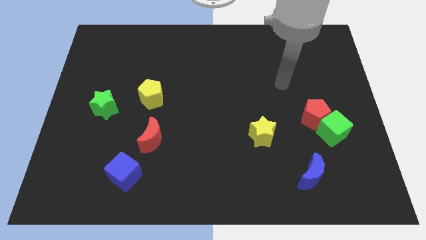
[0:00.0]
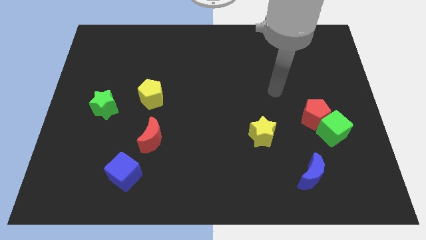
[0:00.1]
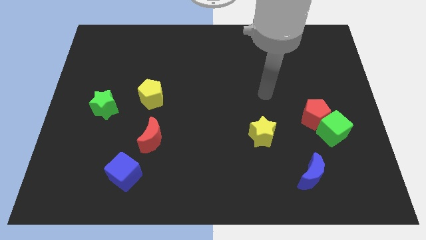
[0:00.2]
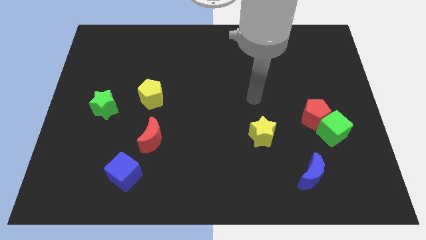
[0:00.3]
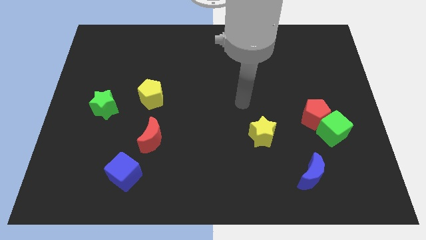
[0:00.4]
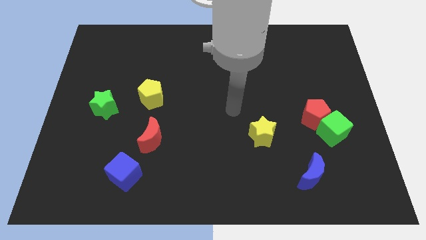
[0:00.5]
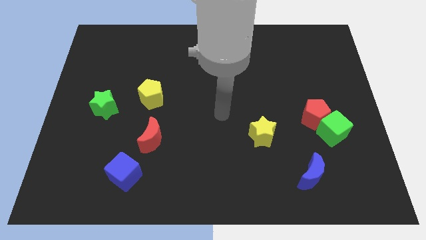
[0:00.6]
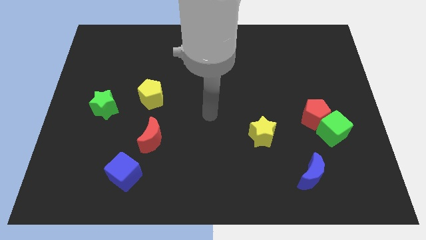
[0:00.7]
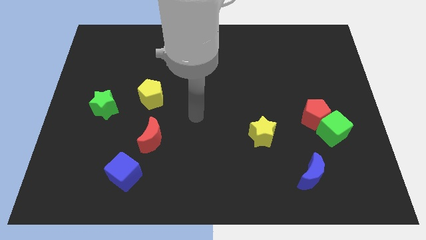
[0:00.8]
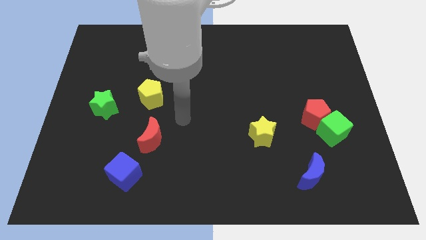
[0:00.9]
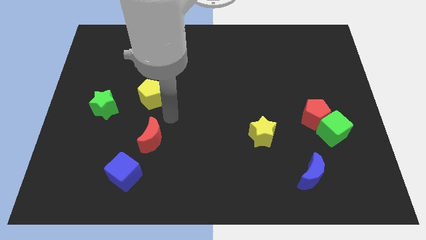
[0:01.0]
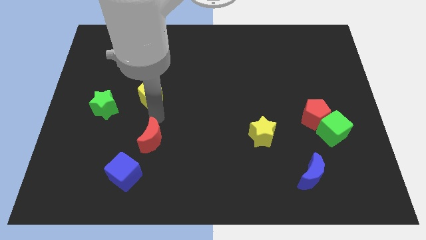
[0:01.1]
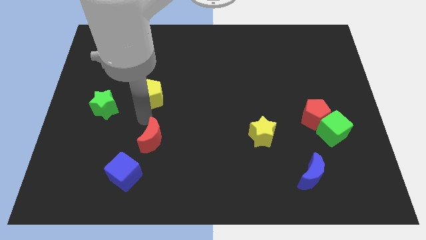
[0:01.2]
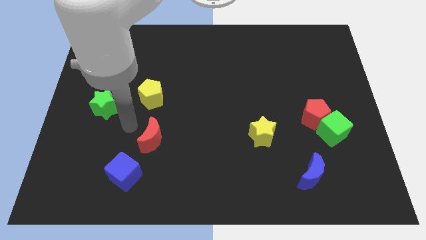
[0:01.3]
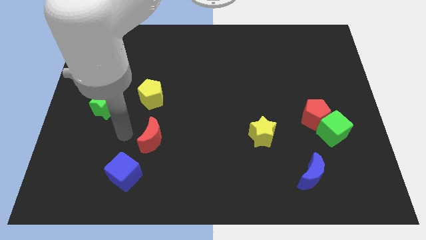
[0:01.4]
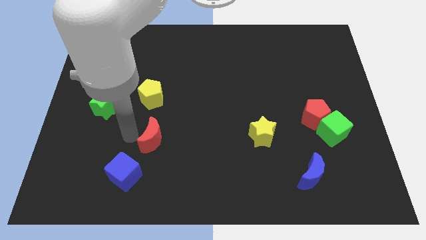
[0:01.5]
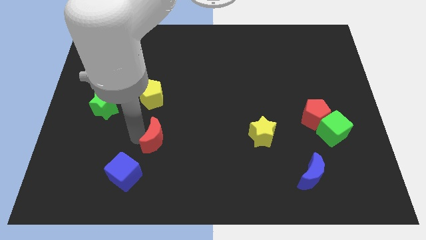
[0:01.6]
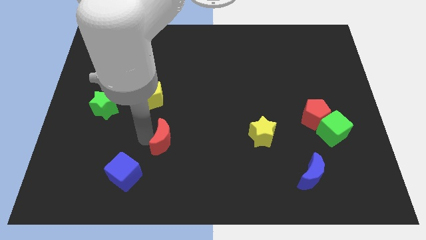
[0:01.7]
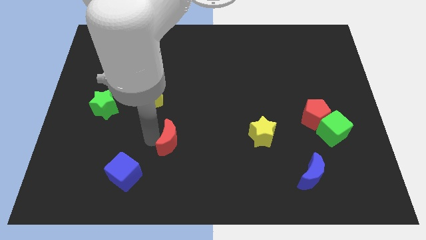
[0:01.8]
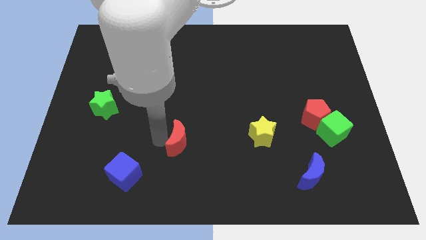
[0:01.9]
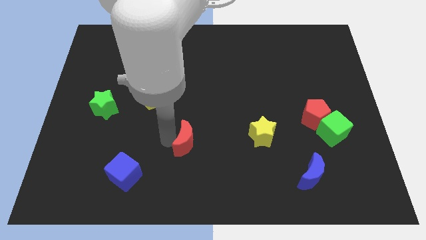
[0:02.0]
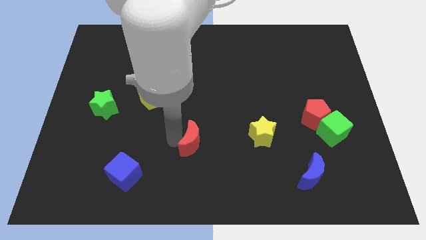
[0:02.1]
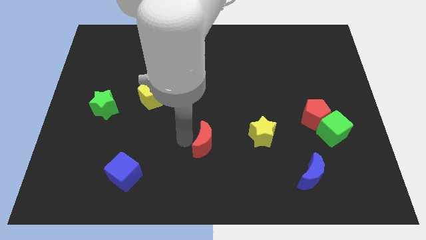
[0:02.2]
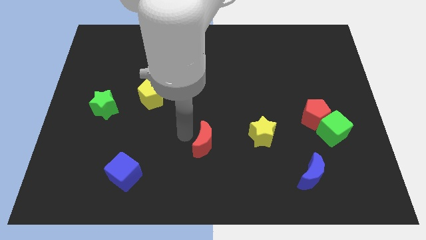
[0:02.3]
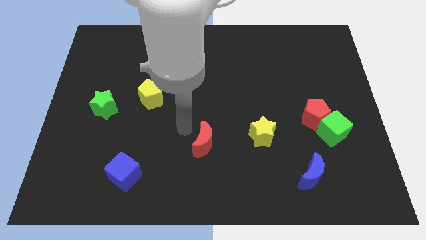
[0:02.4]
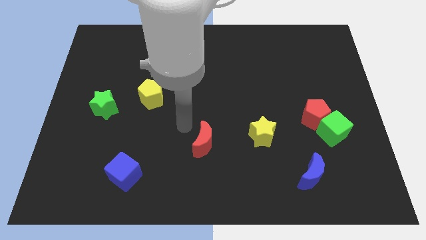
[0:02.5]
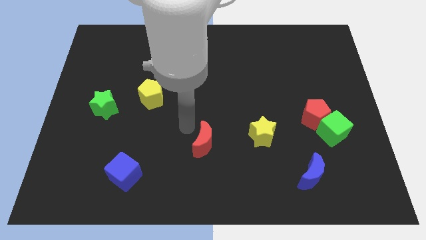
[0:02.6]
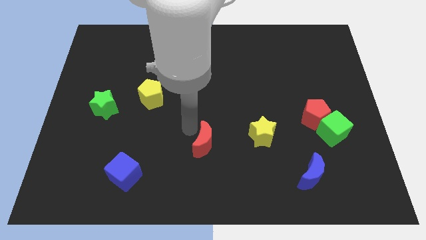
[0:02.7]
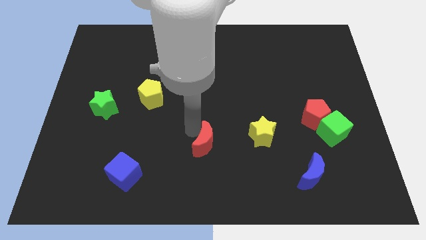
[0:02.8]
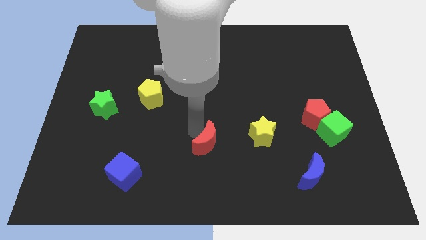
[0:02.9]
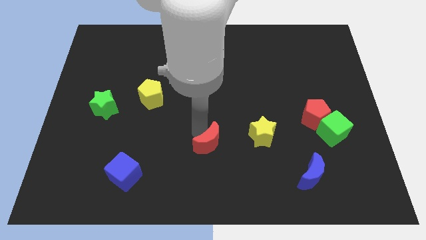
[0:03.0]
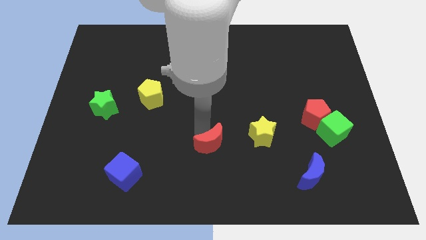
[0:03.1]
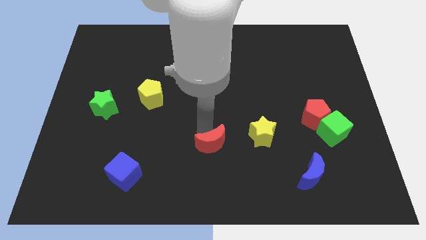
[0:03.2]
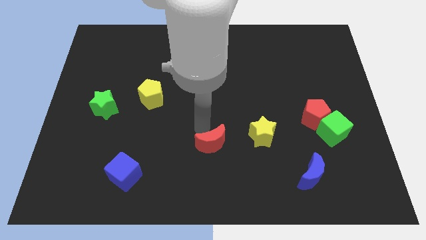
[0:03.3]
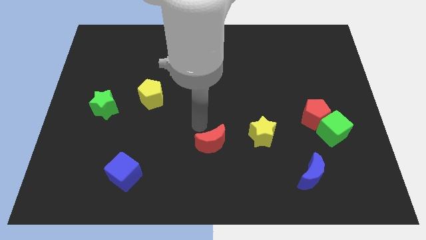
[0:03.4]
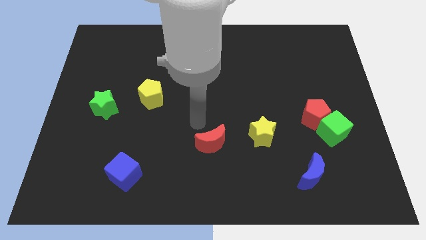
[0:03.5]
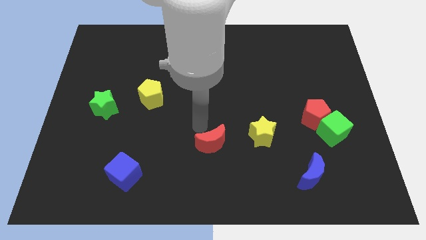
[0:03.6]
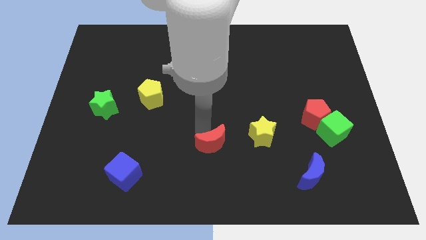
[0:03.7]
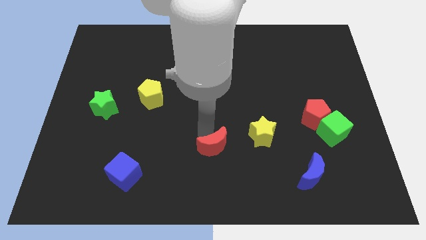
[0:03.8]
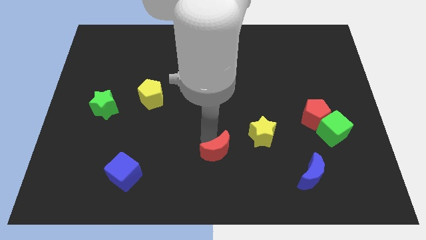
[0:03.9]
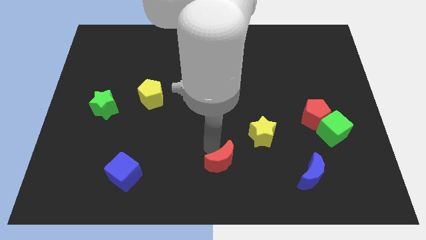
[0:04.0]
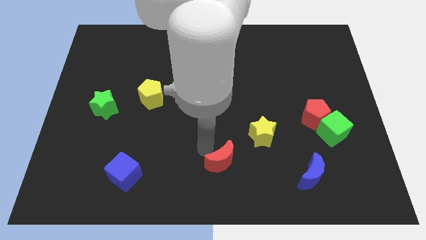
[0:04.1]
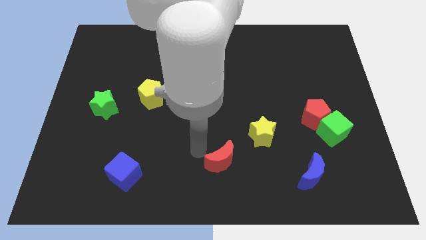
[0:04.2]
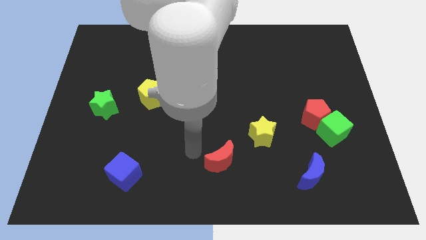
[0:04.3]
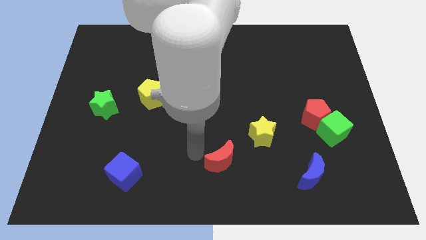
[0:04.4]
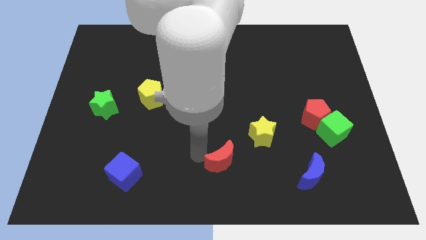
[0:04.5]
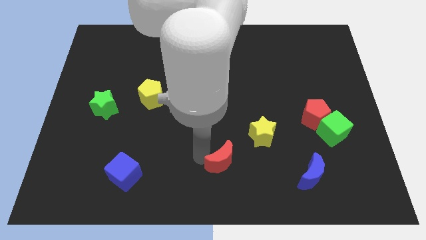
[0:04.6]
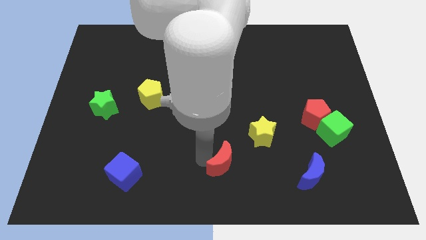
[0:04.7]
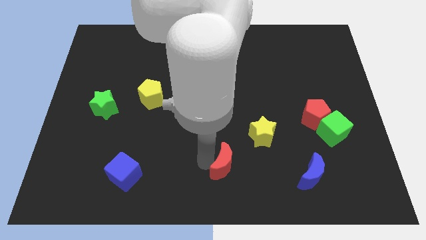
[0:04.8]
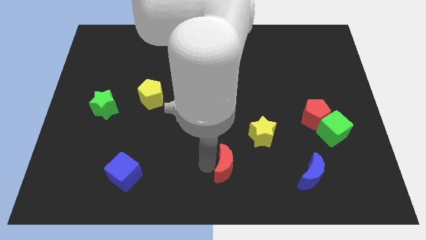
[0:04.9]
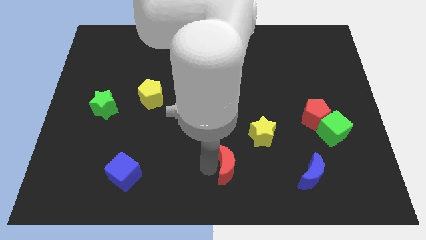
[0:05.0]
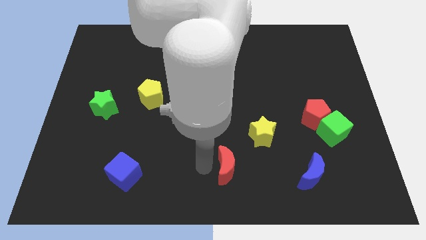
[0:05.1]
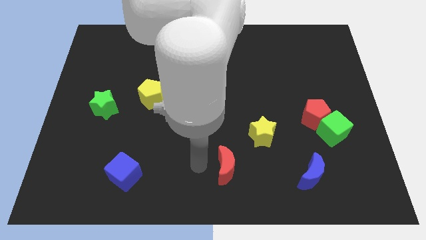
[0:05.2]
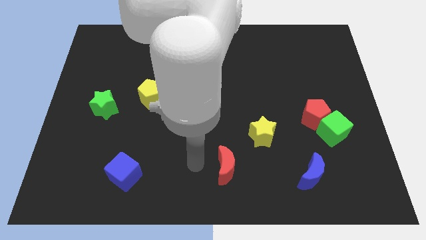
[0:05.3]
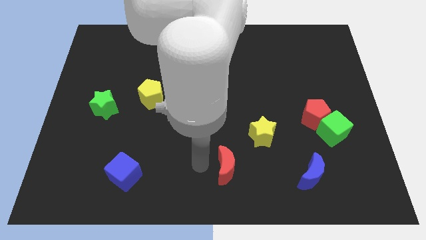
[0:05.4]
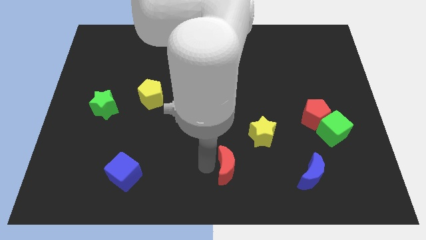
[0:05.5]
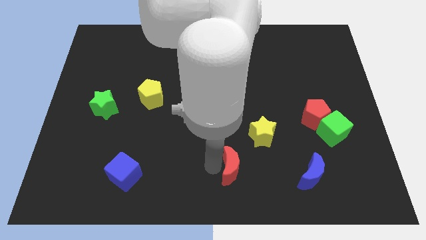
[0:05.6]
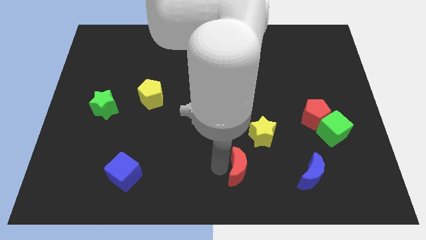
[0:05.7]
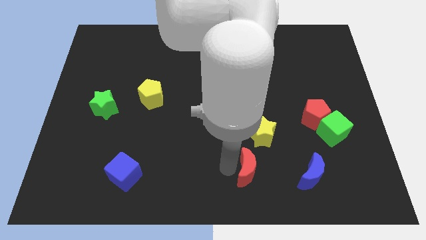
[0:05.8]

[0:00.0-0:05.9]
slide the red moon to the bottom of the yellow star

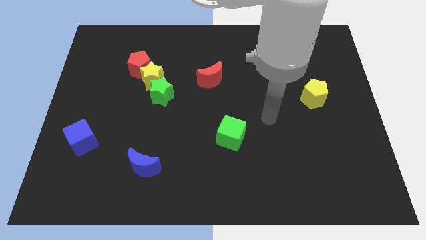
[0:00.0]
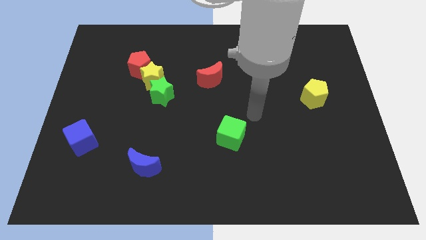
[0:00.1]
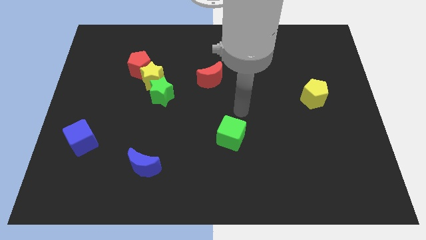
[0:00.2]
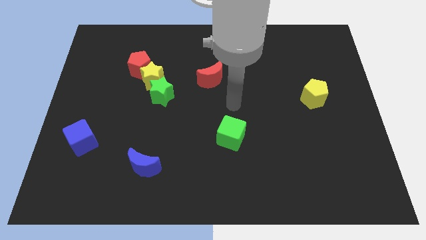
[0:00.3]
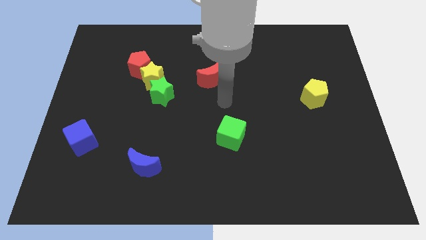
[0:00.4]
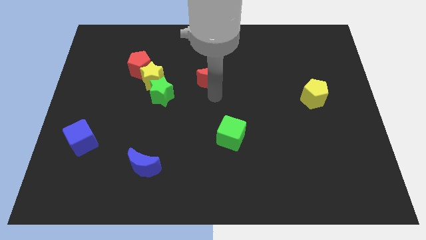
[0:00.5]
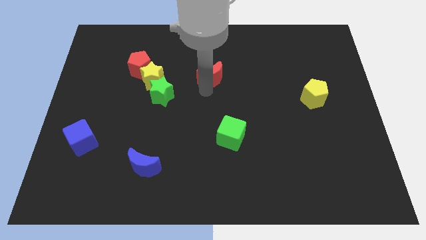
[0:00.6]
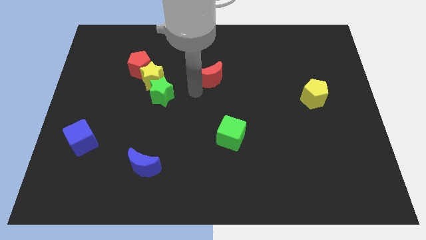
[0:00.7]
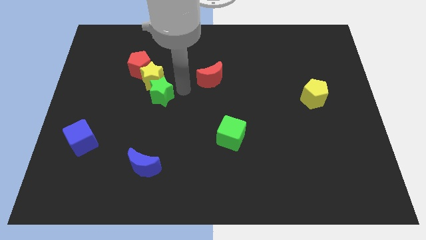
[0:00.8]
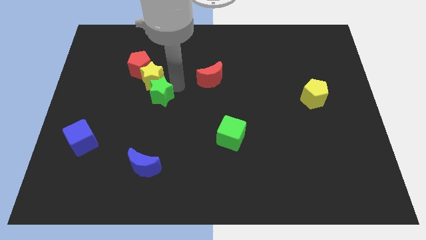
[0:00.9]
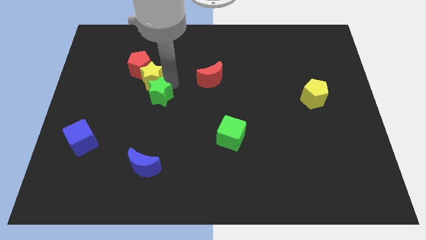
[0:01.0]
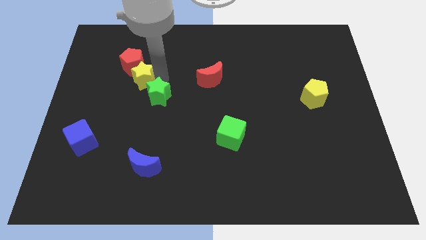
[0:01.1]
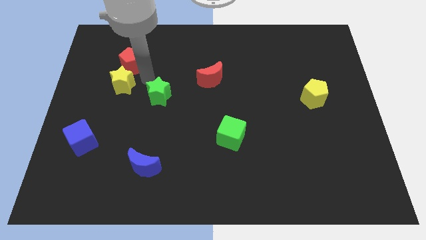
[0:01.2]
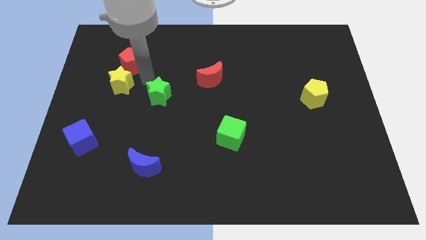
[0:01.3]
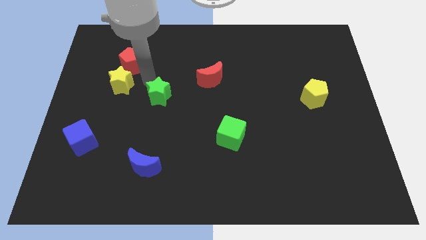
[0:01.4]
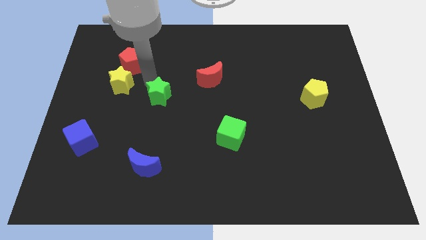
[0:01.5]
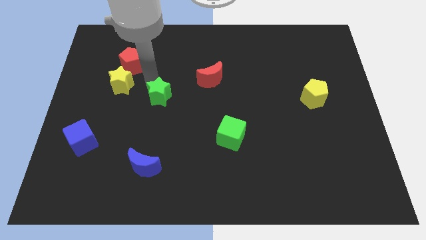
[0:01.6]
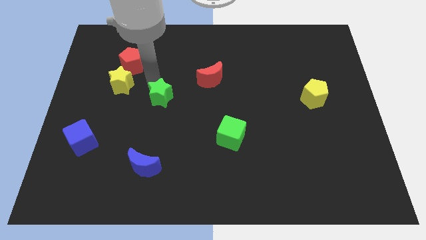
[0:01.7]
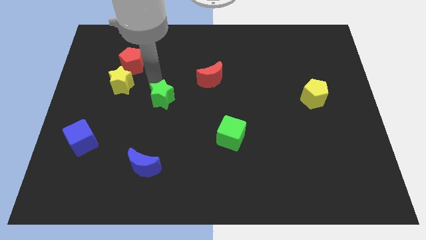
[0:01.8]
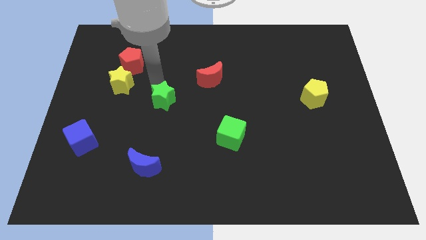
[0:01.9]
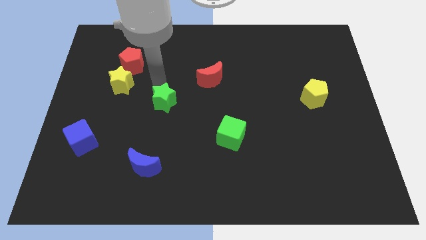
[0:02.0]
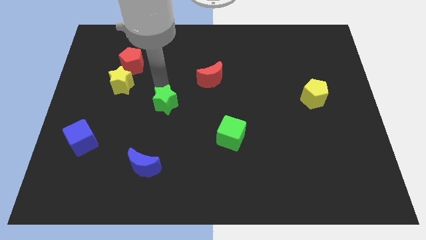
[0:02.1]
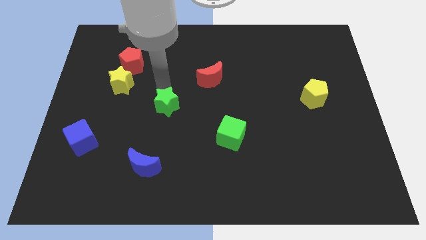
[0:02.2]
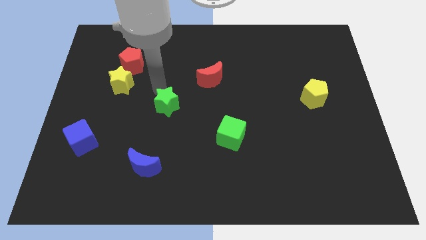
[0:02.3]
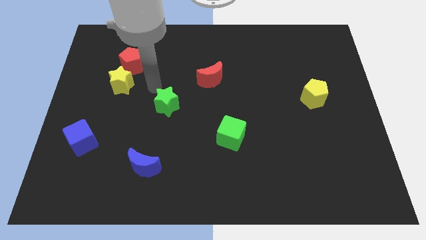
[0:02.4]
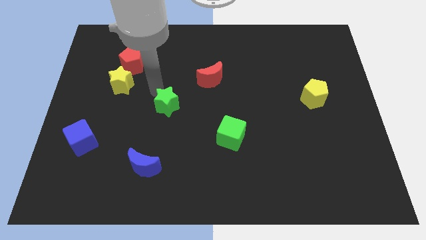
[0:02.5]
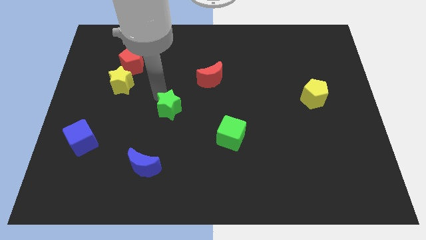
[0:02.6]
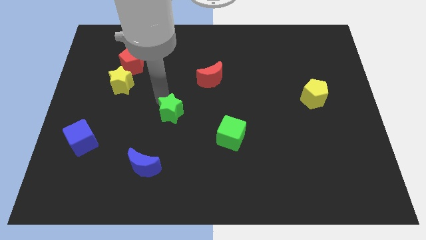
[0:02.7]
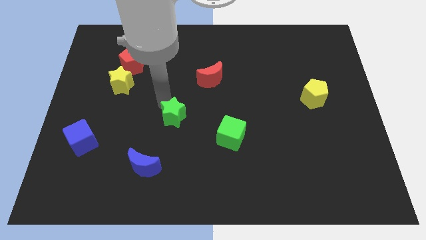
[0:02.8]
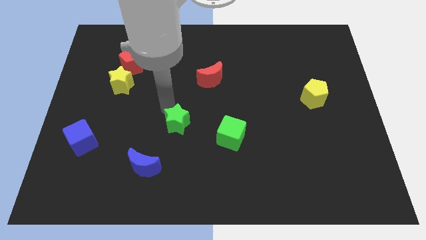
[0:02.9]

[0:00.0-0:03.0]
put the green star to the left of the green cube
